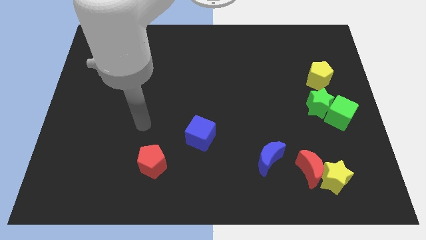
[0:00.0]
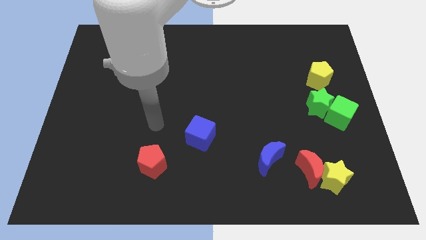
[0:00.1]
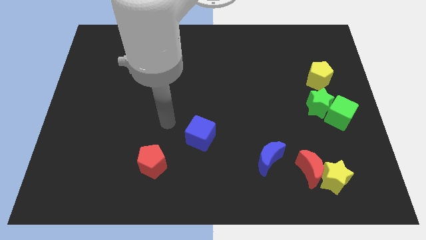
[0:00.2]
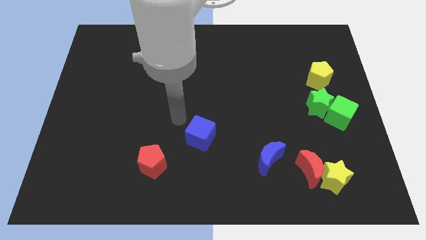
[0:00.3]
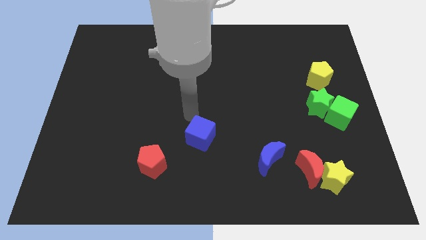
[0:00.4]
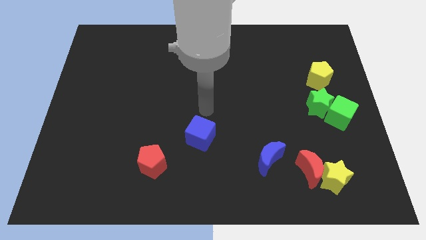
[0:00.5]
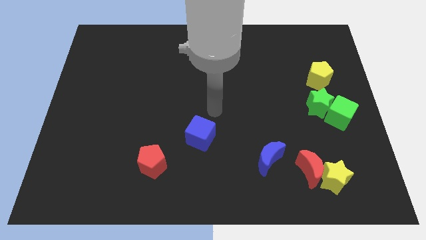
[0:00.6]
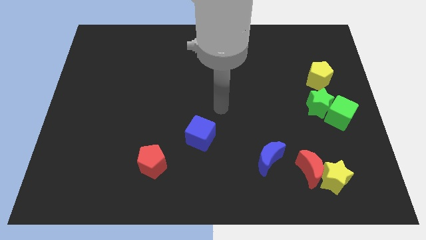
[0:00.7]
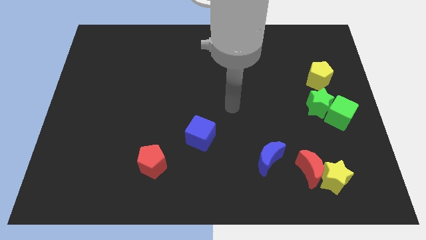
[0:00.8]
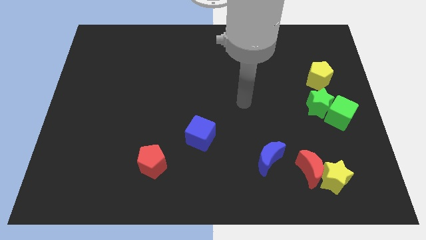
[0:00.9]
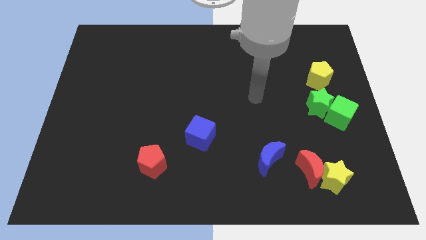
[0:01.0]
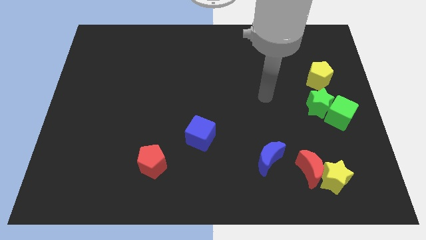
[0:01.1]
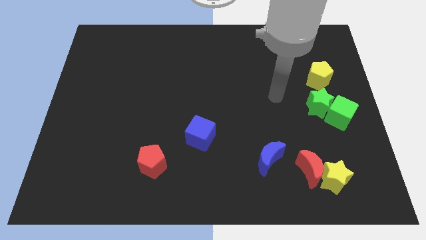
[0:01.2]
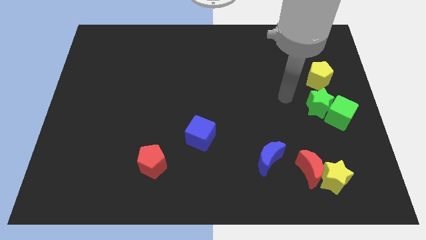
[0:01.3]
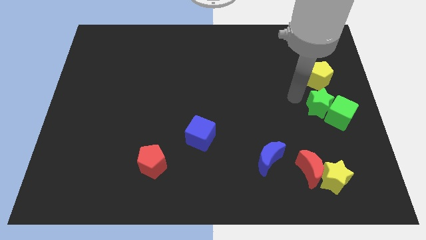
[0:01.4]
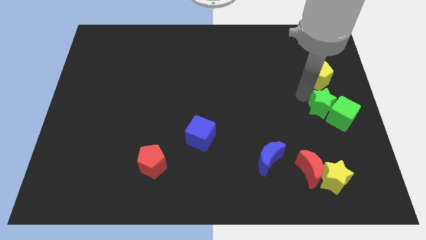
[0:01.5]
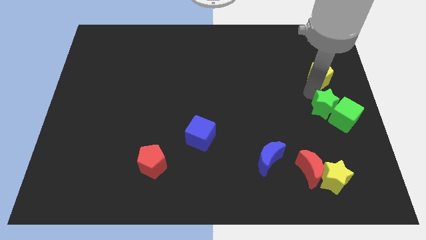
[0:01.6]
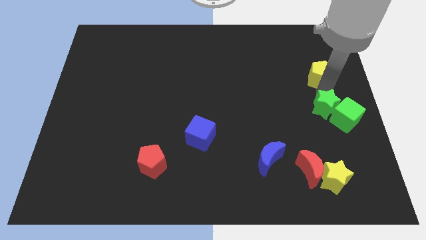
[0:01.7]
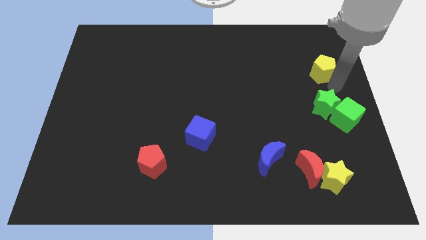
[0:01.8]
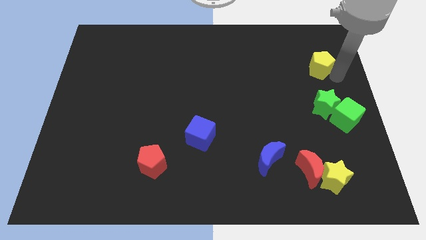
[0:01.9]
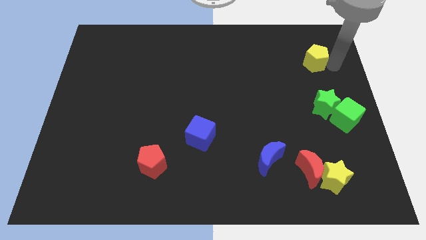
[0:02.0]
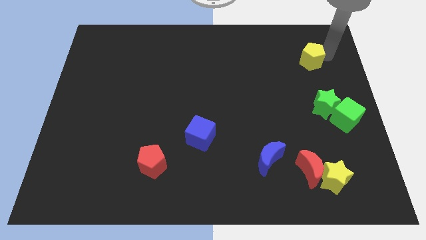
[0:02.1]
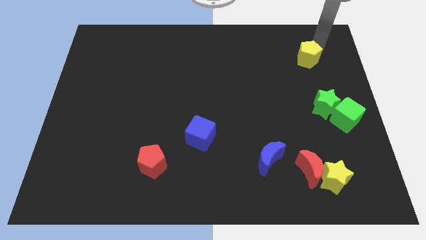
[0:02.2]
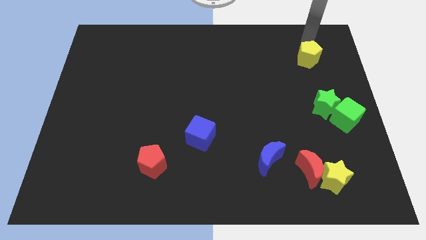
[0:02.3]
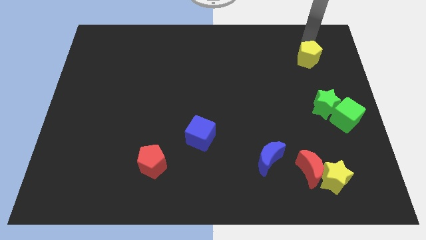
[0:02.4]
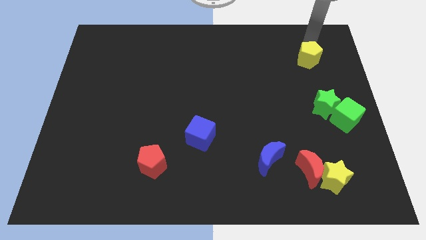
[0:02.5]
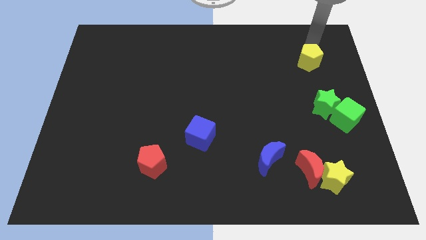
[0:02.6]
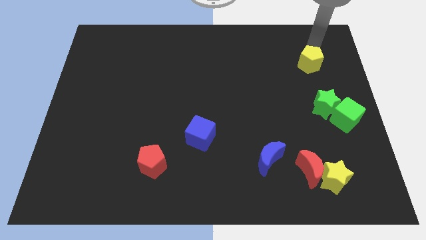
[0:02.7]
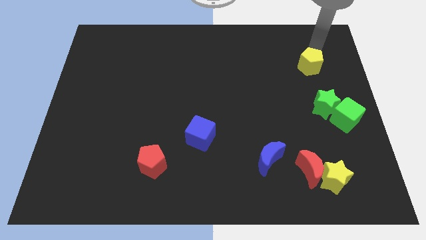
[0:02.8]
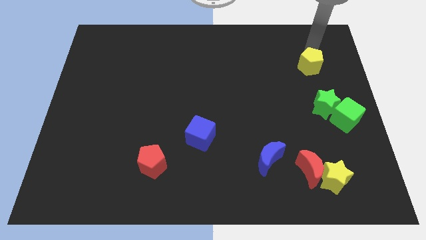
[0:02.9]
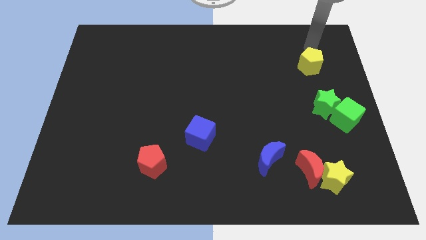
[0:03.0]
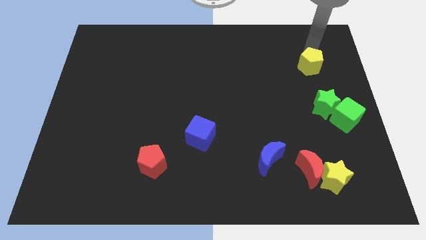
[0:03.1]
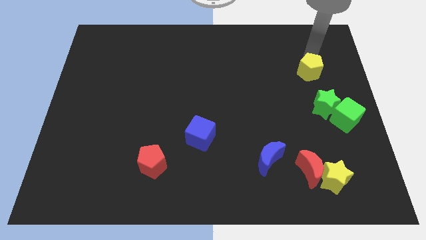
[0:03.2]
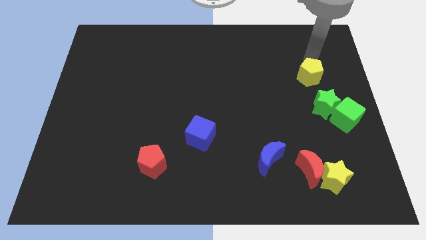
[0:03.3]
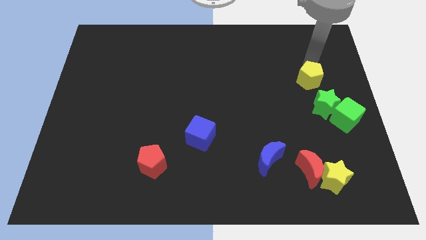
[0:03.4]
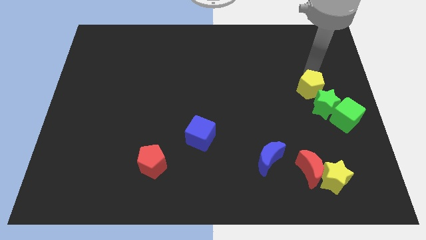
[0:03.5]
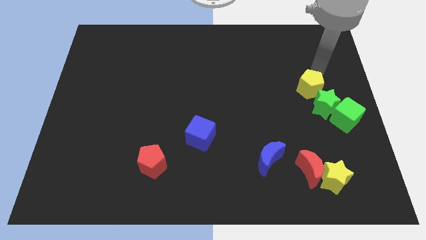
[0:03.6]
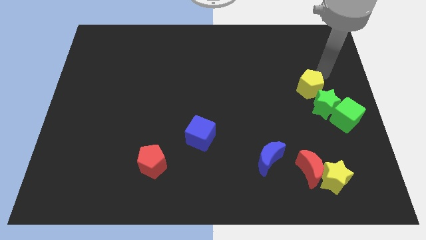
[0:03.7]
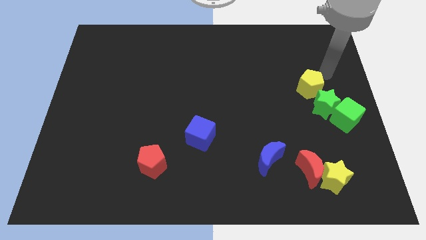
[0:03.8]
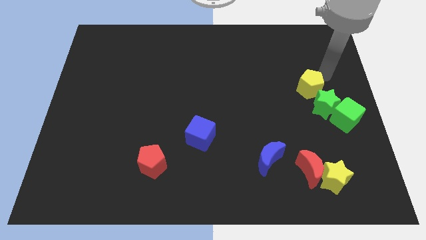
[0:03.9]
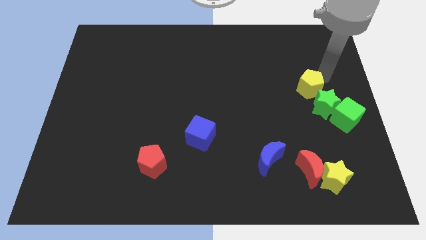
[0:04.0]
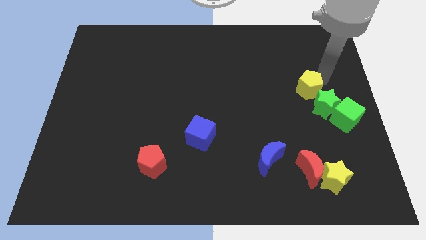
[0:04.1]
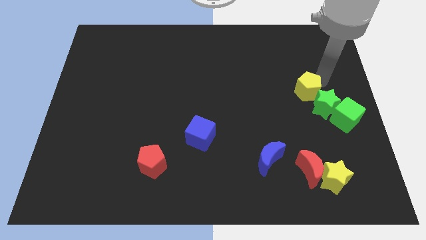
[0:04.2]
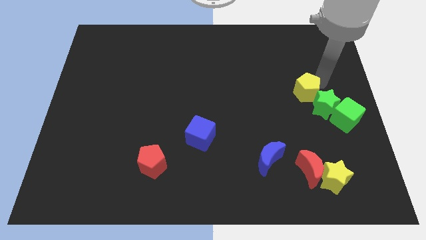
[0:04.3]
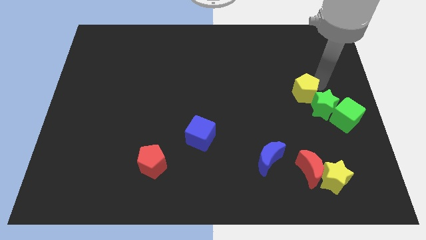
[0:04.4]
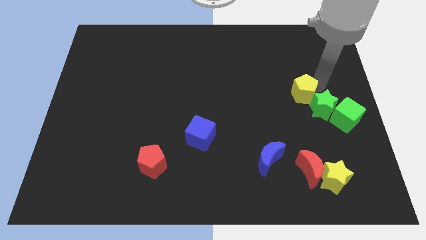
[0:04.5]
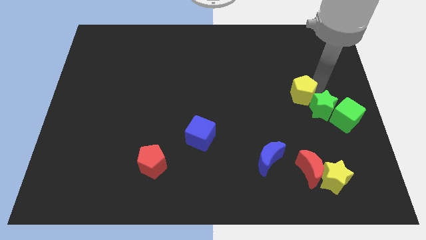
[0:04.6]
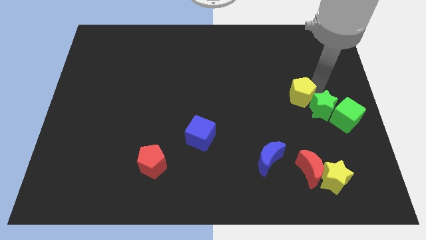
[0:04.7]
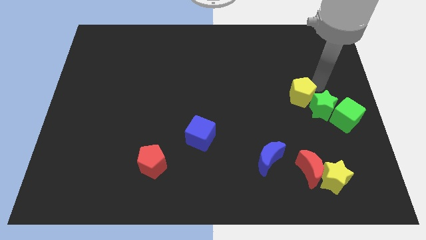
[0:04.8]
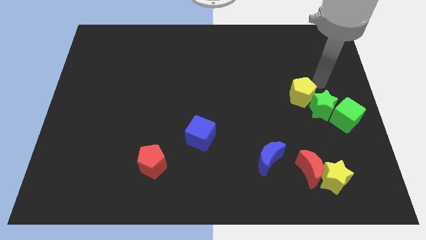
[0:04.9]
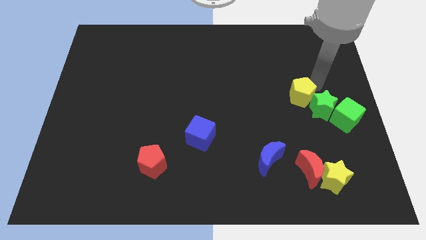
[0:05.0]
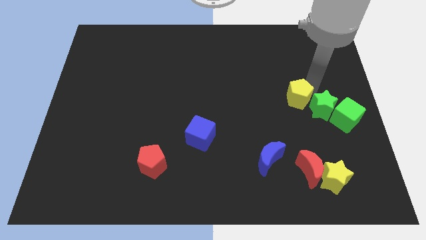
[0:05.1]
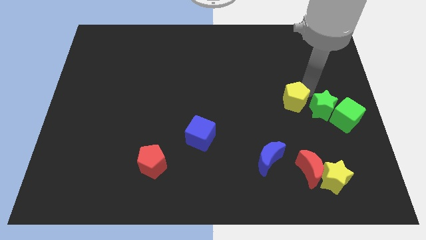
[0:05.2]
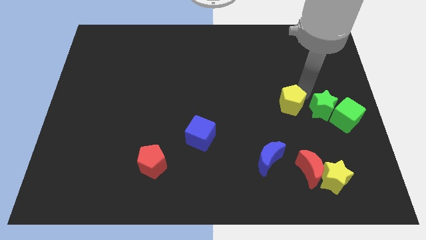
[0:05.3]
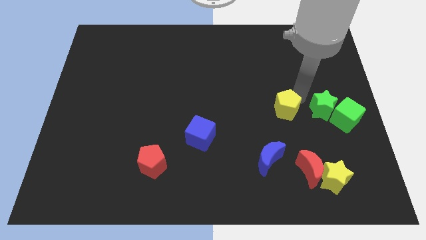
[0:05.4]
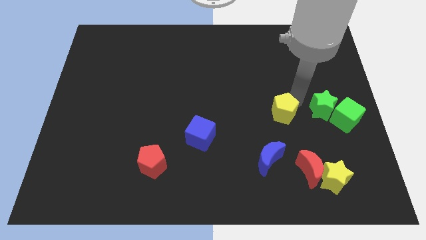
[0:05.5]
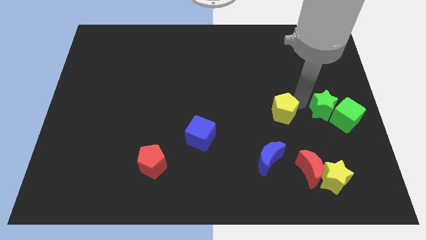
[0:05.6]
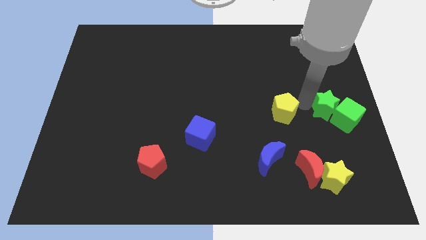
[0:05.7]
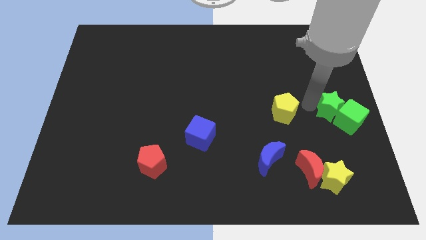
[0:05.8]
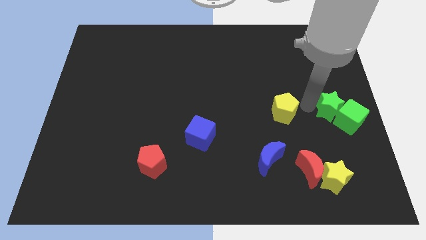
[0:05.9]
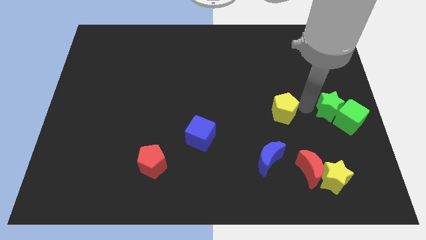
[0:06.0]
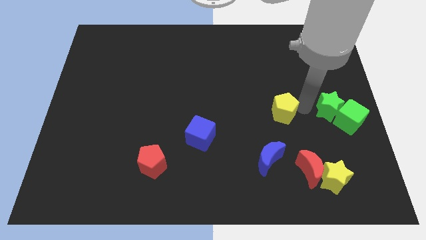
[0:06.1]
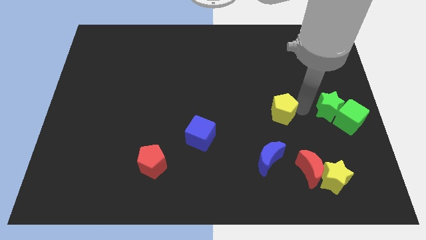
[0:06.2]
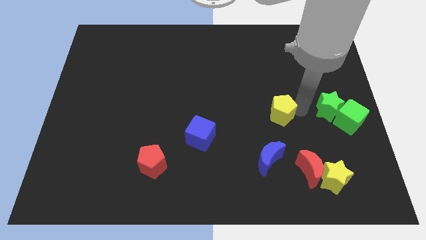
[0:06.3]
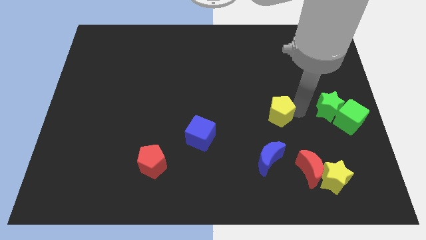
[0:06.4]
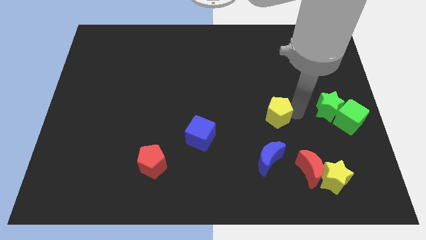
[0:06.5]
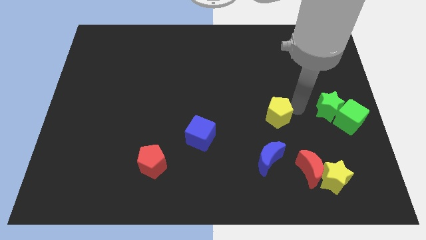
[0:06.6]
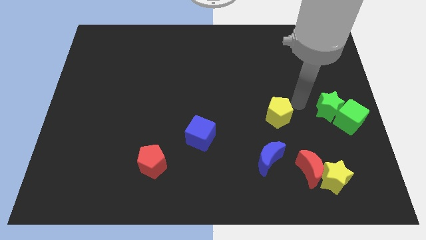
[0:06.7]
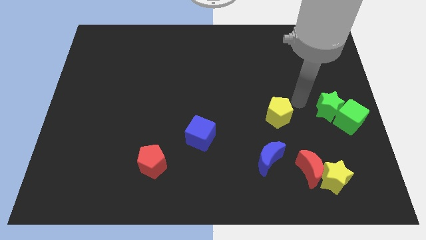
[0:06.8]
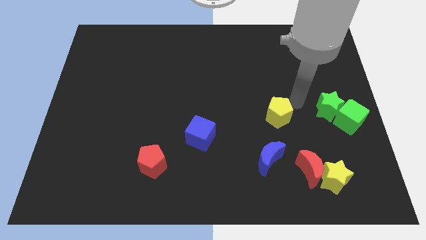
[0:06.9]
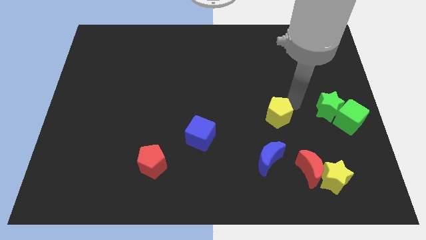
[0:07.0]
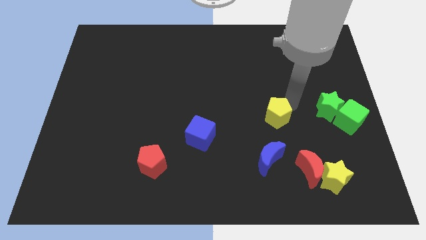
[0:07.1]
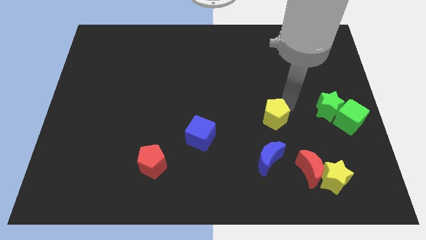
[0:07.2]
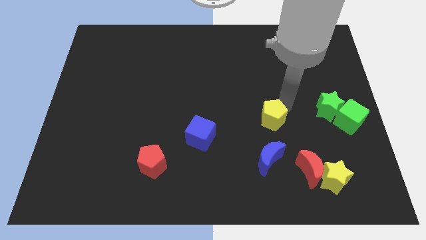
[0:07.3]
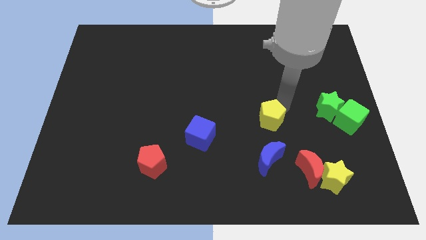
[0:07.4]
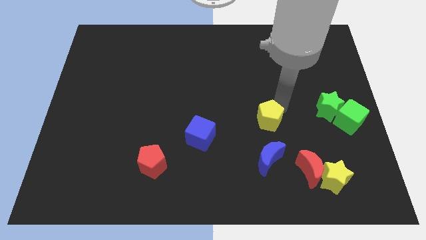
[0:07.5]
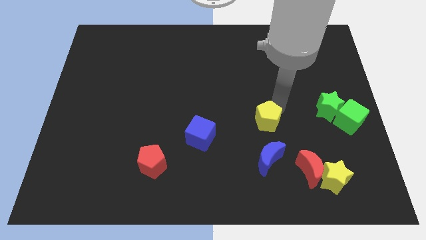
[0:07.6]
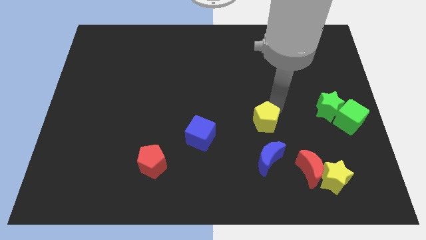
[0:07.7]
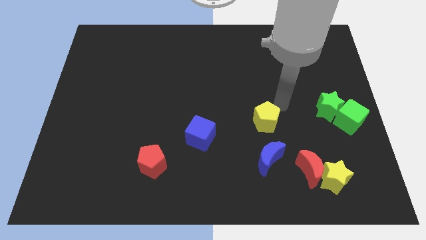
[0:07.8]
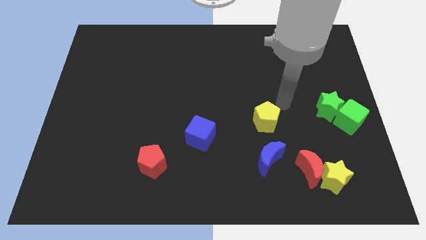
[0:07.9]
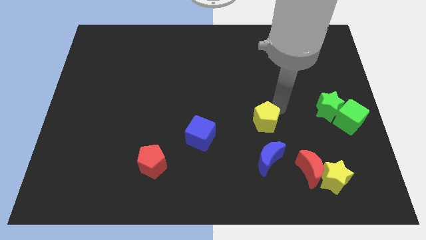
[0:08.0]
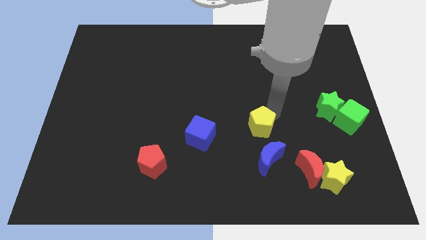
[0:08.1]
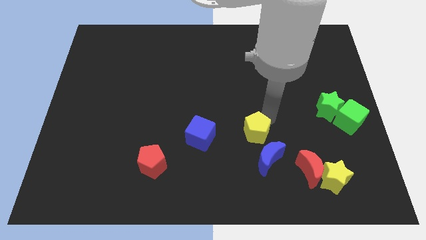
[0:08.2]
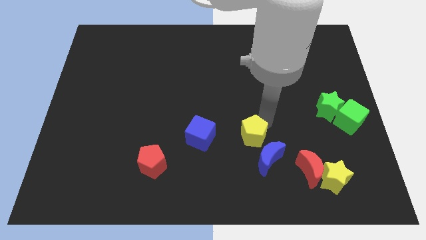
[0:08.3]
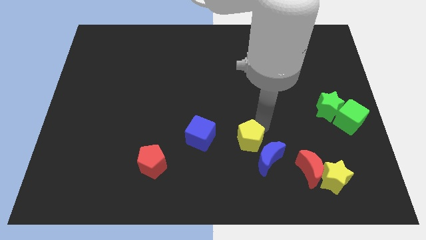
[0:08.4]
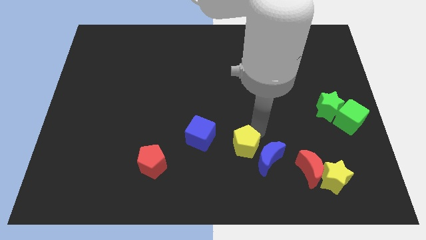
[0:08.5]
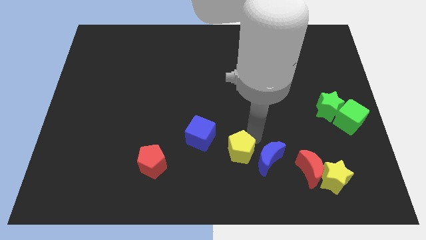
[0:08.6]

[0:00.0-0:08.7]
push the yellow pentagon diagonally down and to the right of the blue cube
